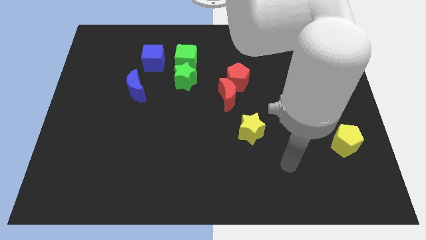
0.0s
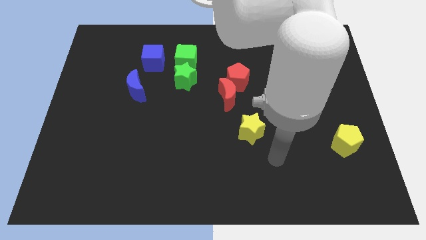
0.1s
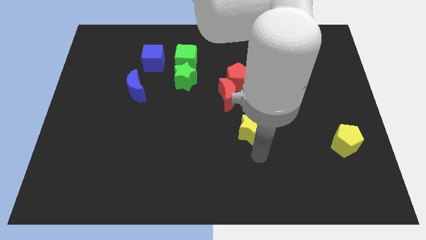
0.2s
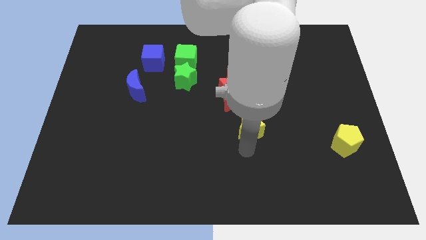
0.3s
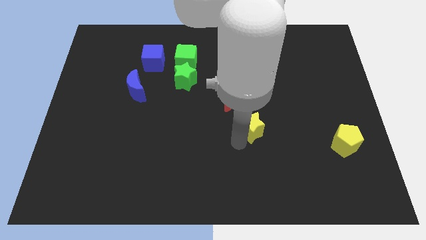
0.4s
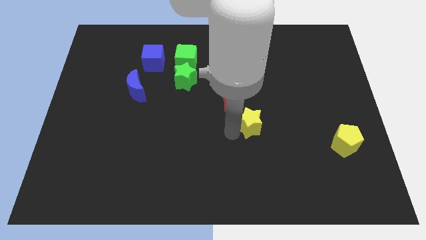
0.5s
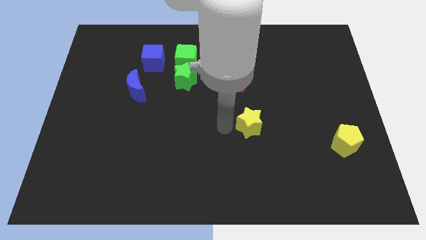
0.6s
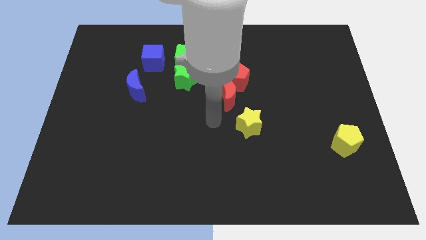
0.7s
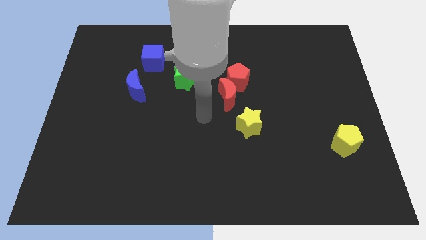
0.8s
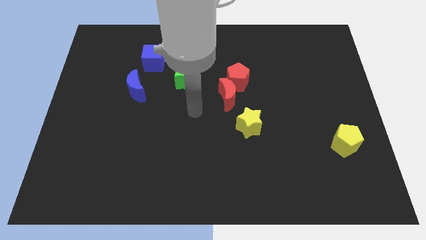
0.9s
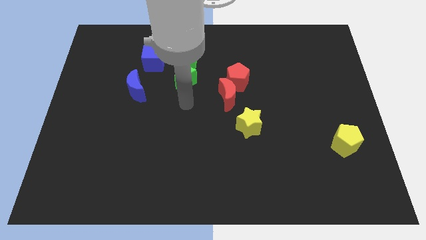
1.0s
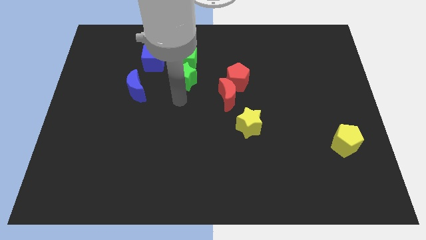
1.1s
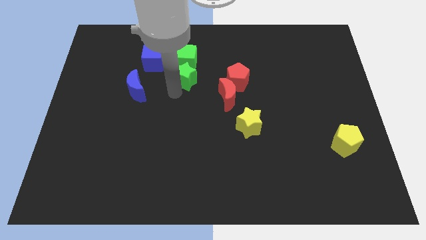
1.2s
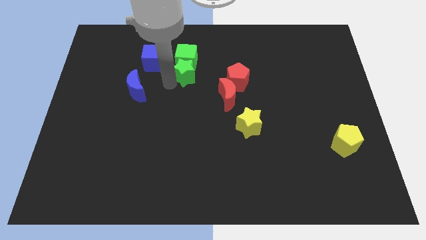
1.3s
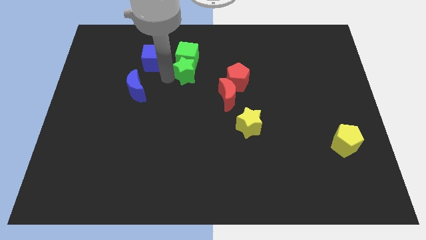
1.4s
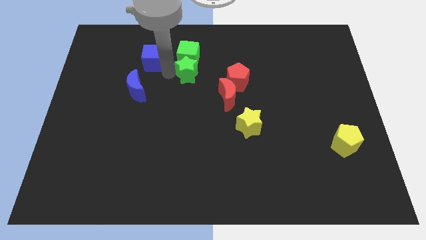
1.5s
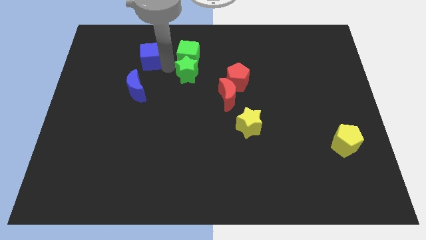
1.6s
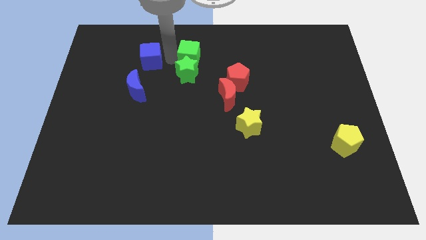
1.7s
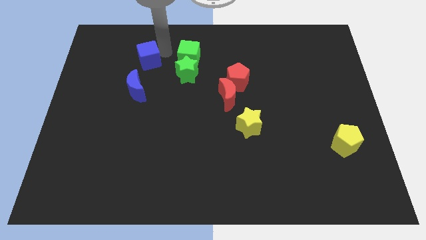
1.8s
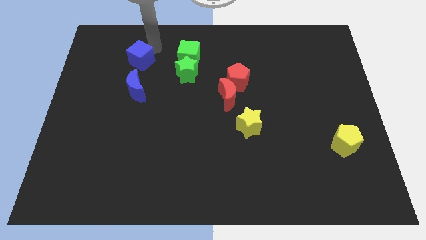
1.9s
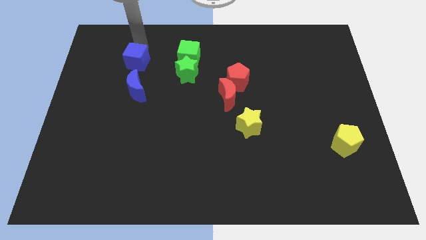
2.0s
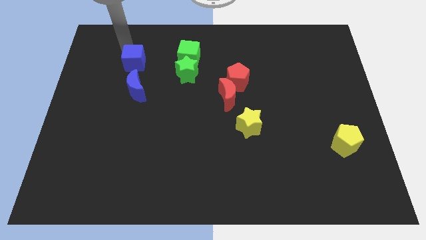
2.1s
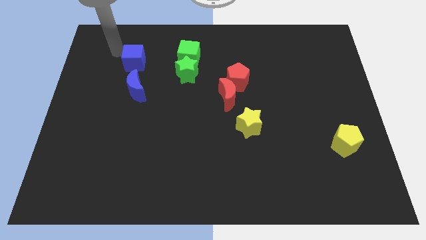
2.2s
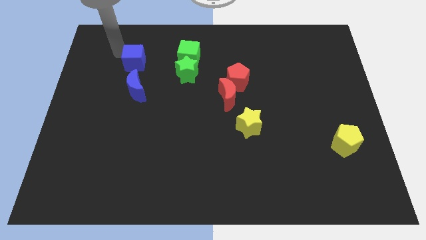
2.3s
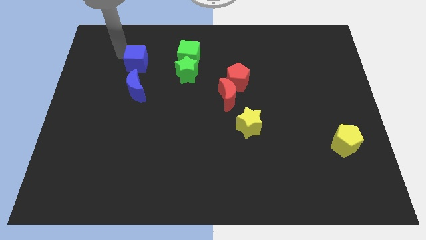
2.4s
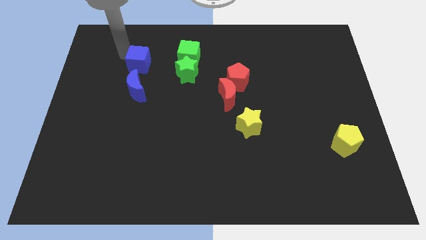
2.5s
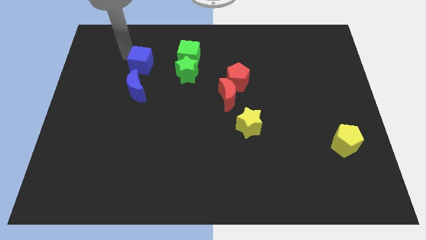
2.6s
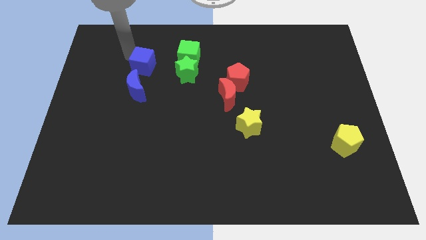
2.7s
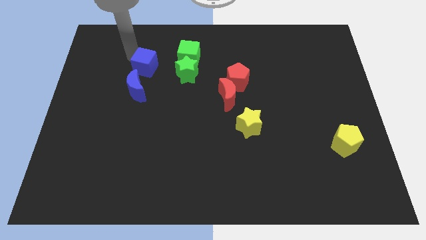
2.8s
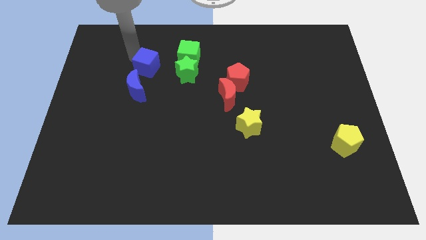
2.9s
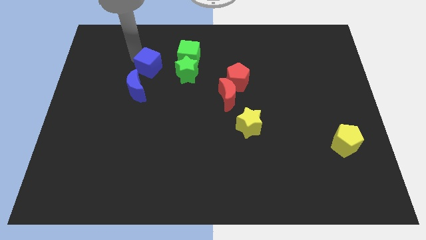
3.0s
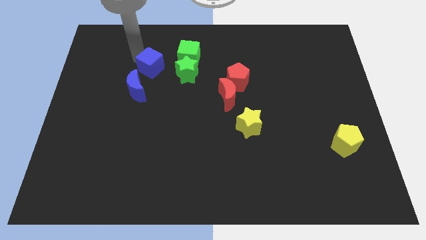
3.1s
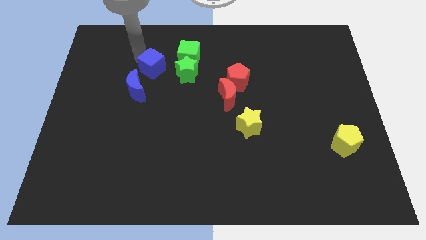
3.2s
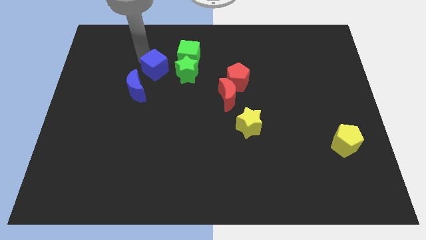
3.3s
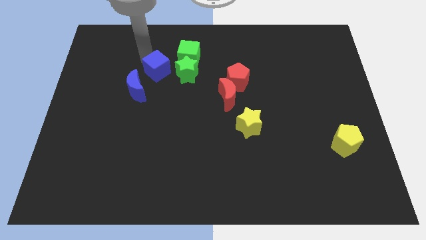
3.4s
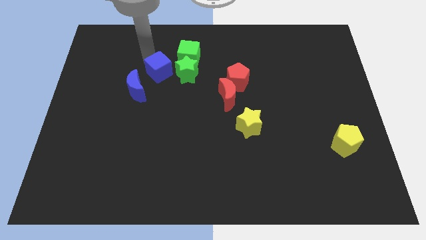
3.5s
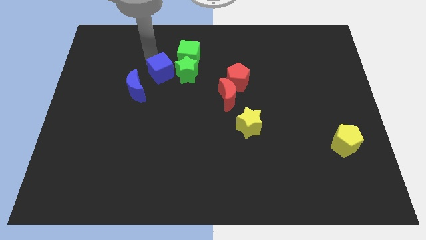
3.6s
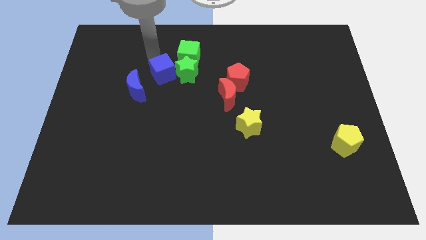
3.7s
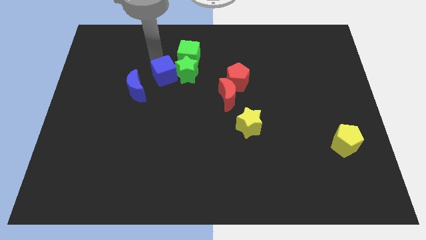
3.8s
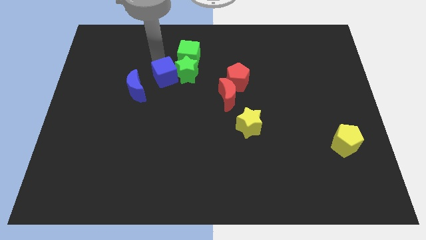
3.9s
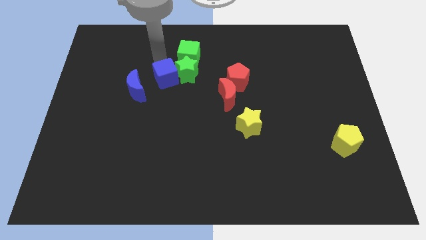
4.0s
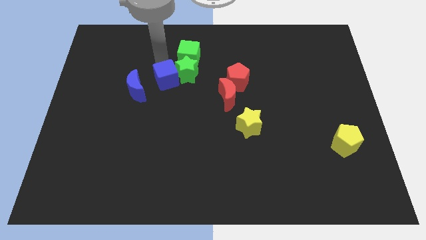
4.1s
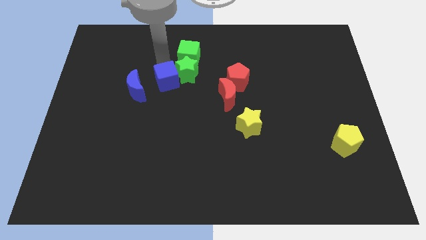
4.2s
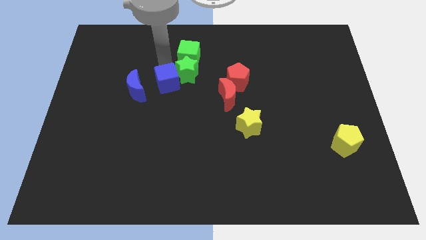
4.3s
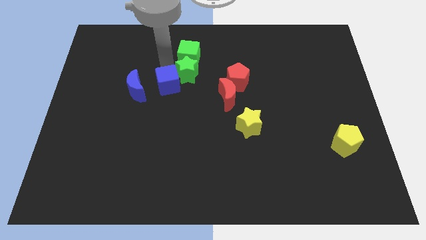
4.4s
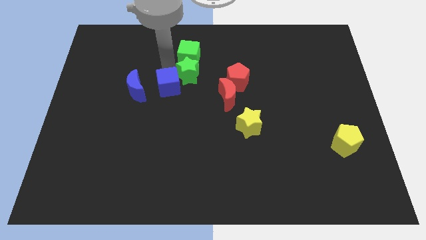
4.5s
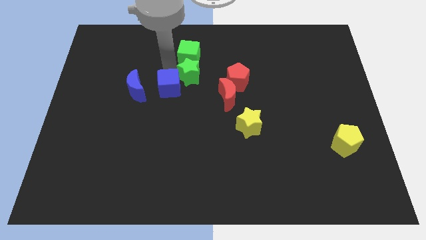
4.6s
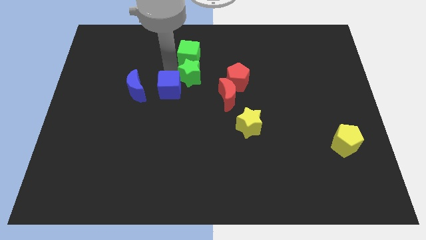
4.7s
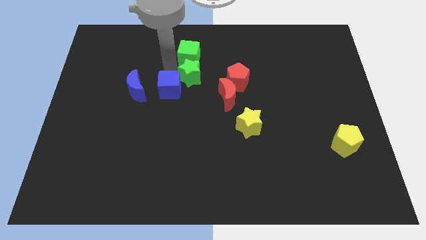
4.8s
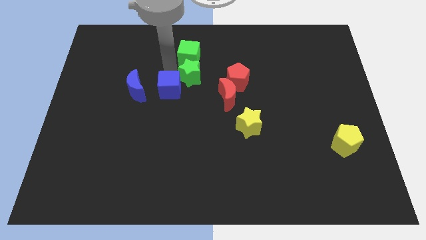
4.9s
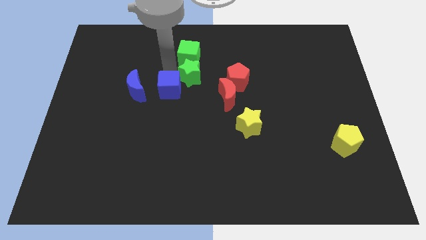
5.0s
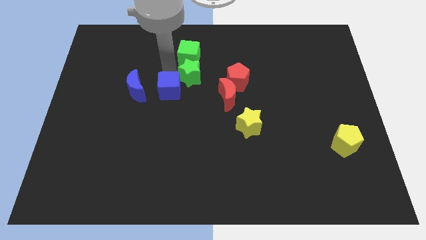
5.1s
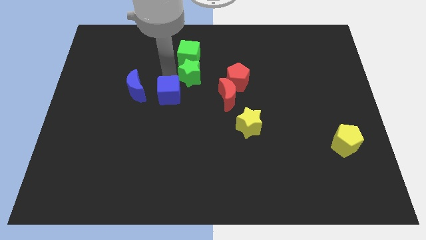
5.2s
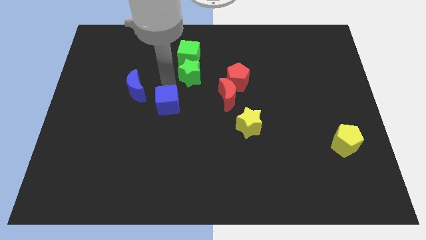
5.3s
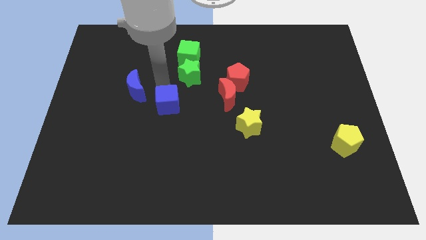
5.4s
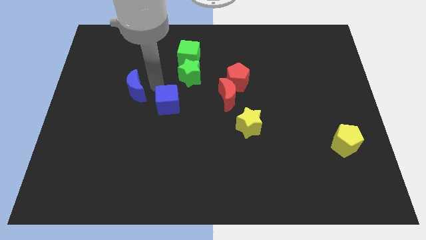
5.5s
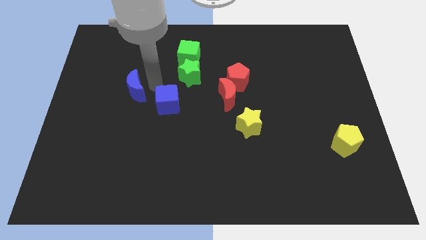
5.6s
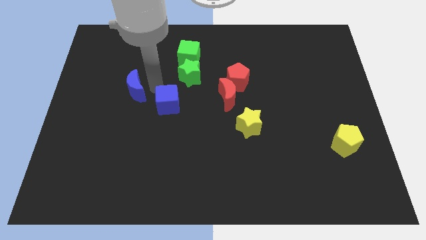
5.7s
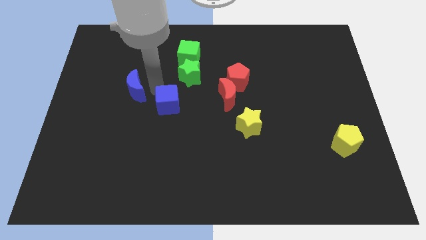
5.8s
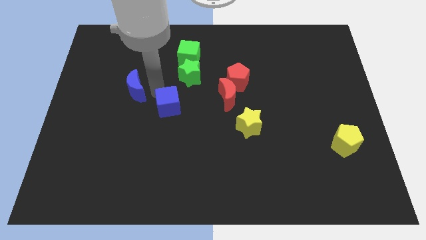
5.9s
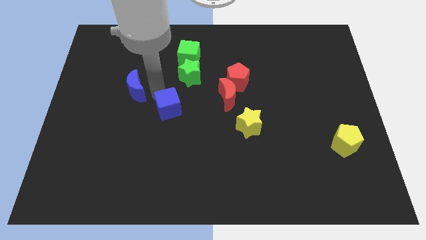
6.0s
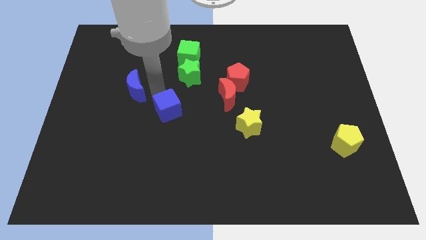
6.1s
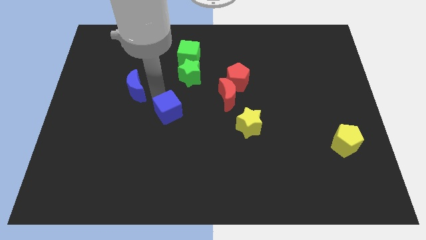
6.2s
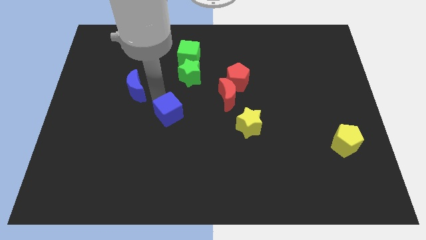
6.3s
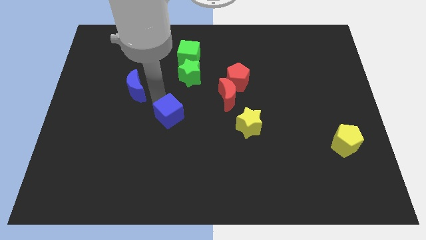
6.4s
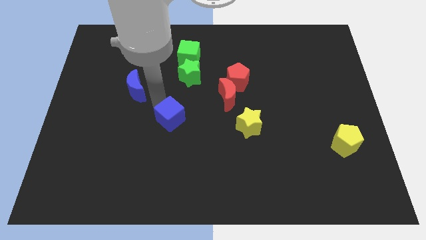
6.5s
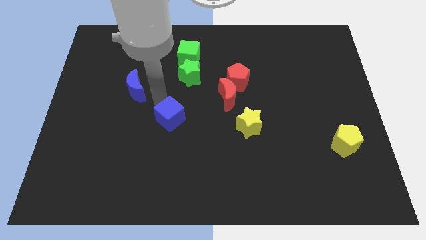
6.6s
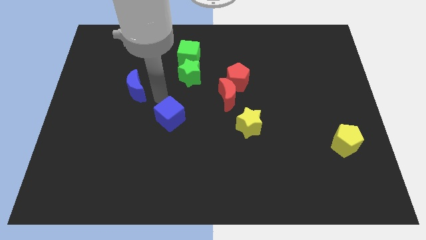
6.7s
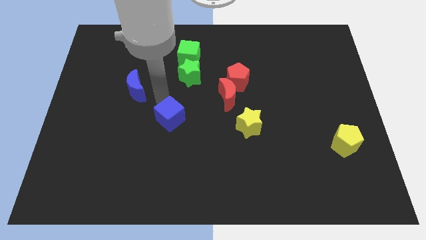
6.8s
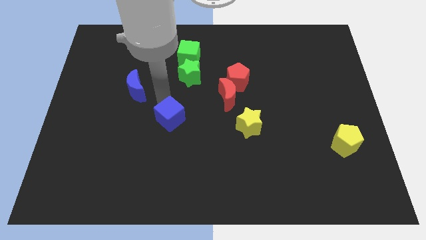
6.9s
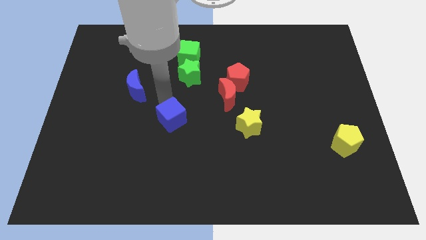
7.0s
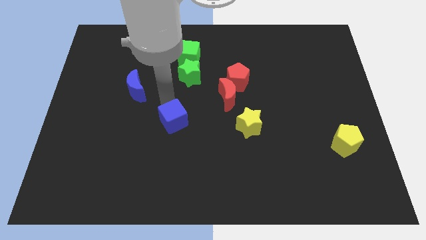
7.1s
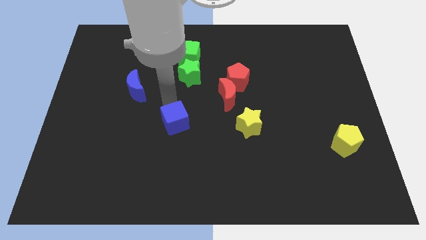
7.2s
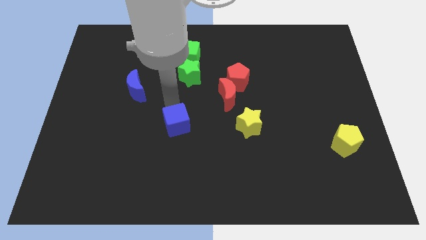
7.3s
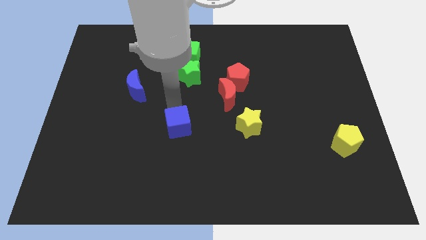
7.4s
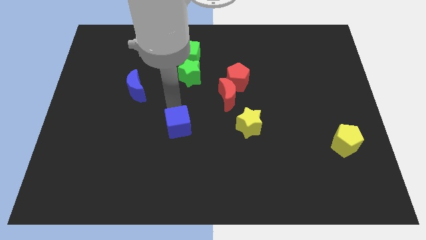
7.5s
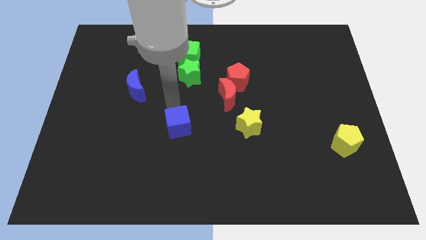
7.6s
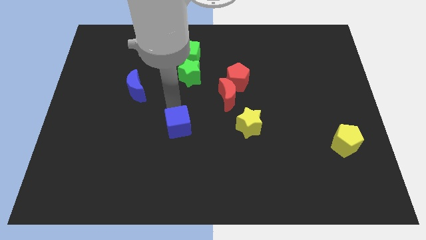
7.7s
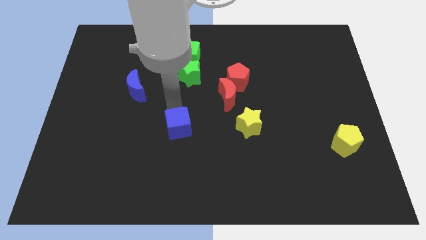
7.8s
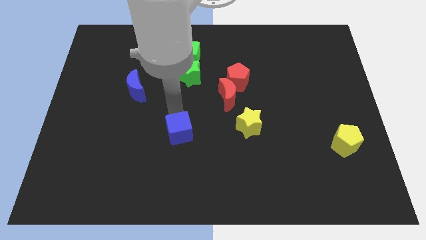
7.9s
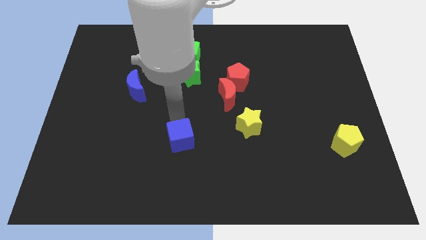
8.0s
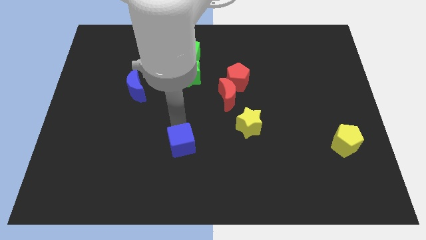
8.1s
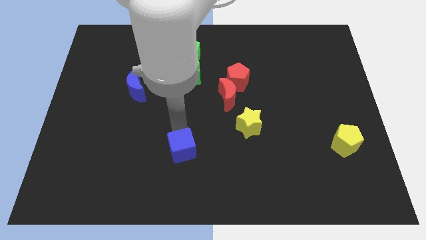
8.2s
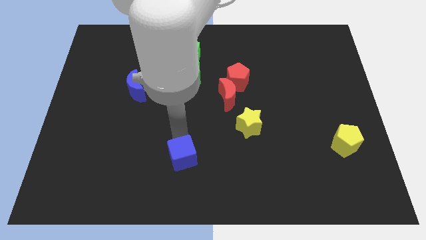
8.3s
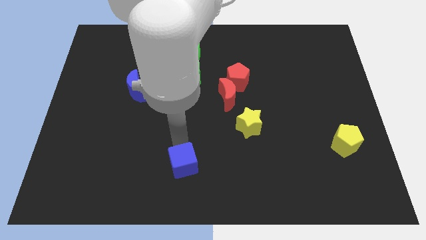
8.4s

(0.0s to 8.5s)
move the blue cube to the bottom side
